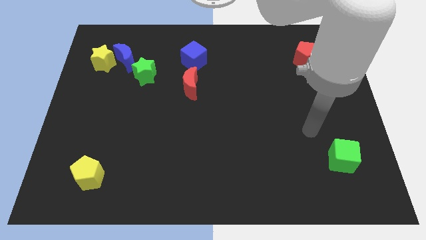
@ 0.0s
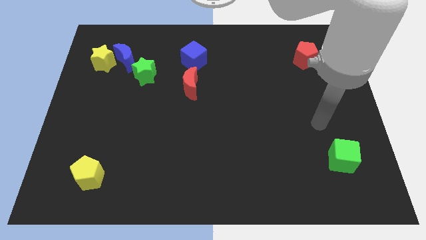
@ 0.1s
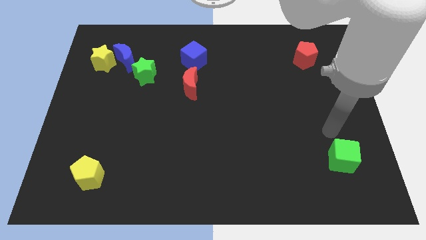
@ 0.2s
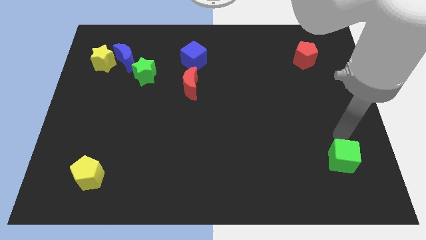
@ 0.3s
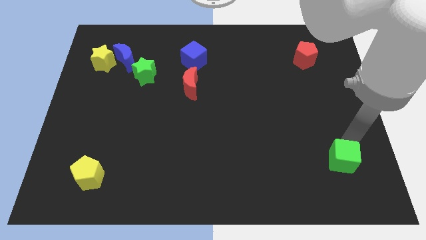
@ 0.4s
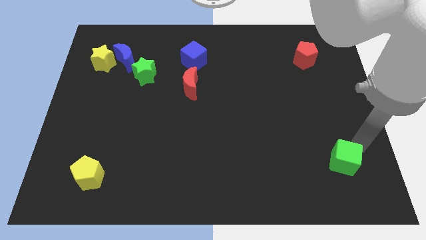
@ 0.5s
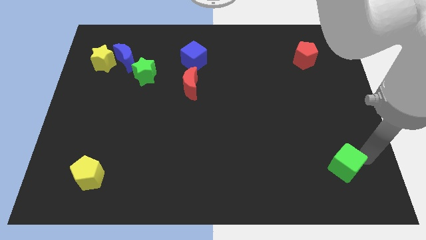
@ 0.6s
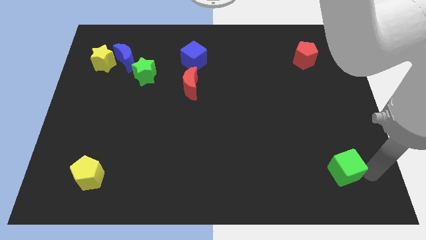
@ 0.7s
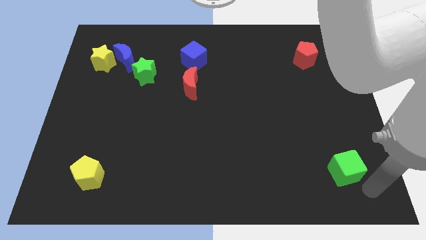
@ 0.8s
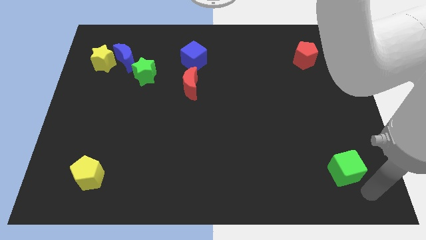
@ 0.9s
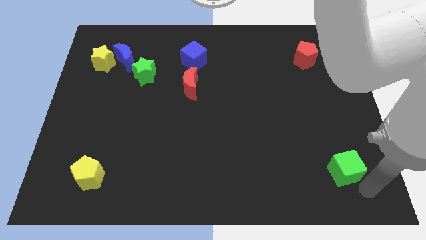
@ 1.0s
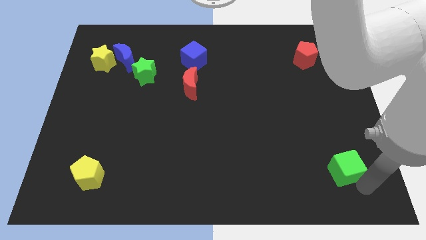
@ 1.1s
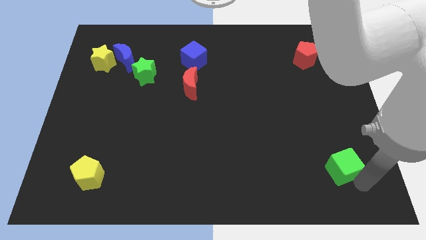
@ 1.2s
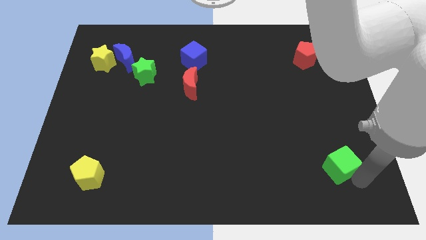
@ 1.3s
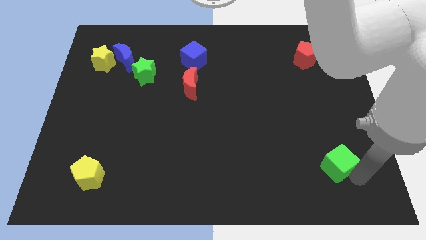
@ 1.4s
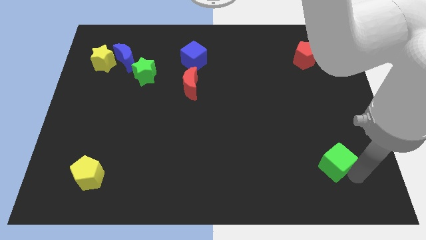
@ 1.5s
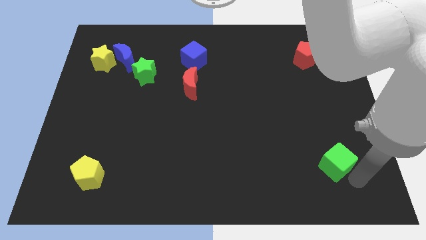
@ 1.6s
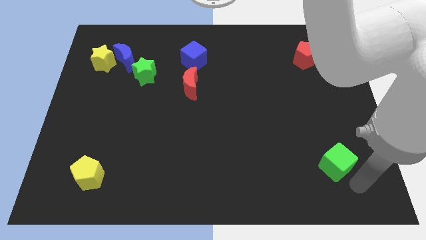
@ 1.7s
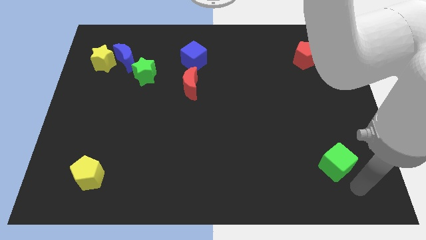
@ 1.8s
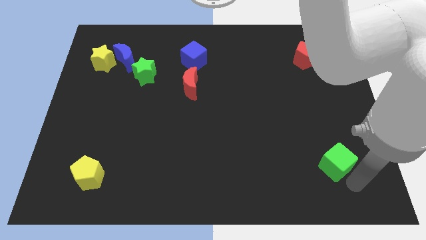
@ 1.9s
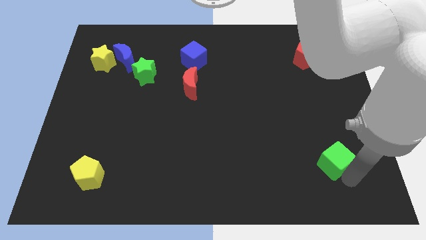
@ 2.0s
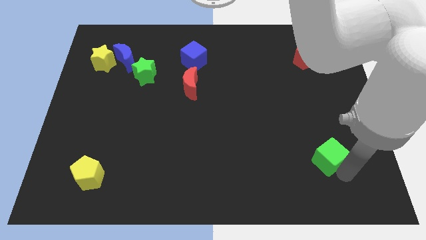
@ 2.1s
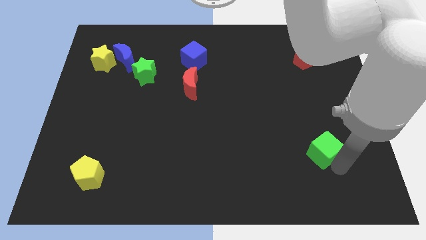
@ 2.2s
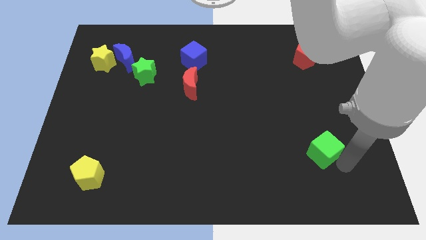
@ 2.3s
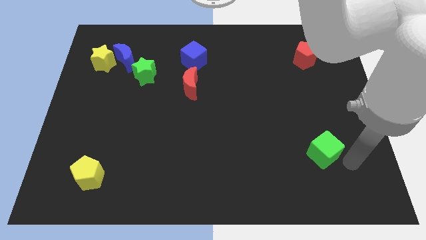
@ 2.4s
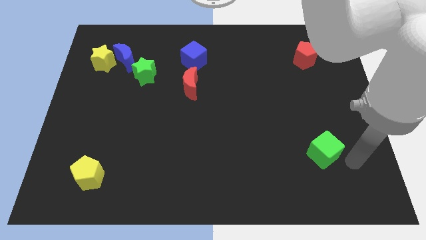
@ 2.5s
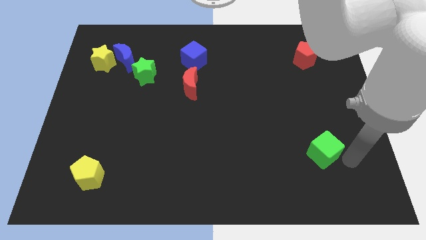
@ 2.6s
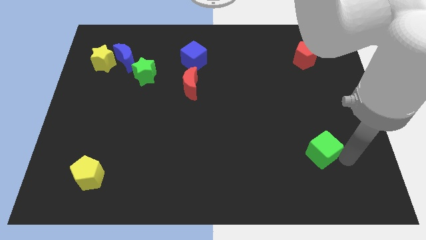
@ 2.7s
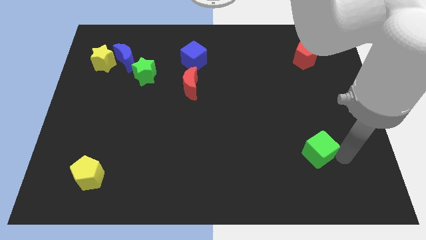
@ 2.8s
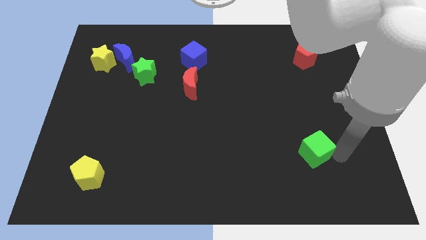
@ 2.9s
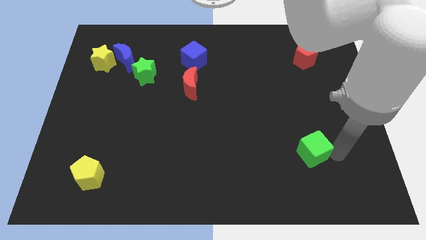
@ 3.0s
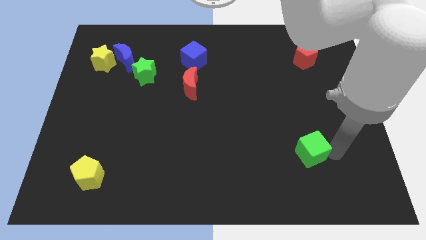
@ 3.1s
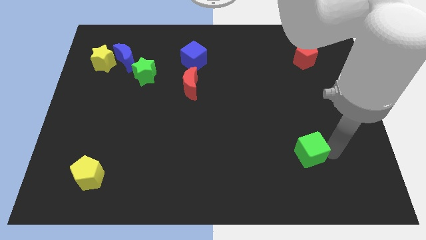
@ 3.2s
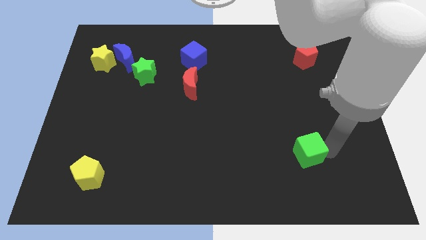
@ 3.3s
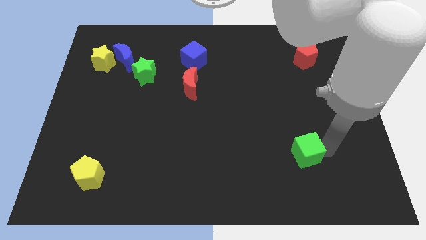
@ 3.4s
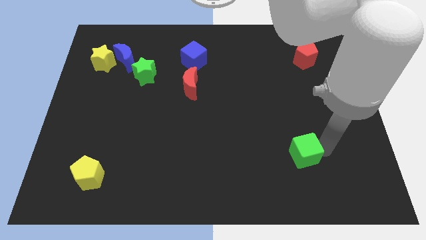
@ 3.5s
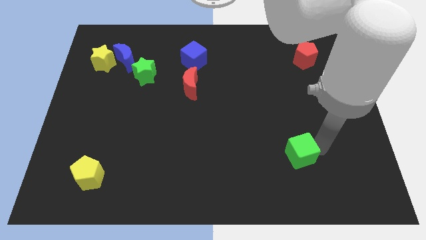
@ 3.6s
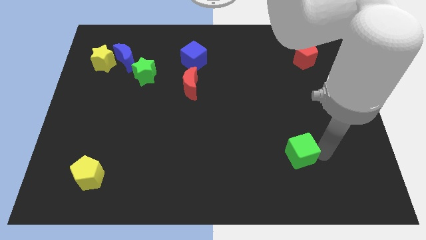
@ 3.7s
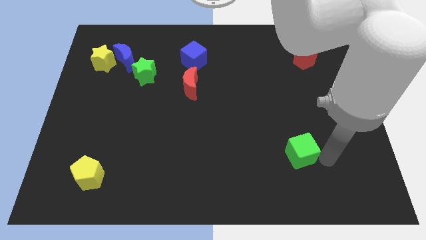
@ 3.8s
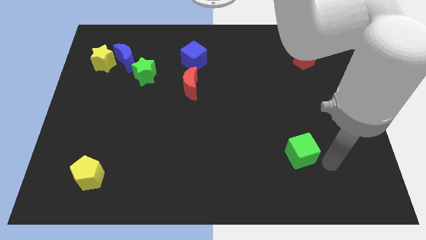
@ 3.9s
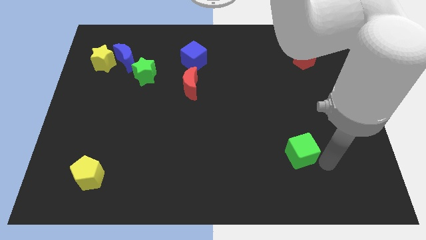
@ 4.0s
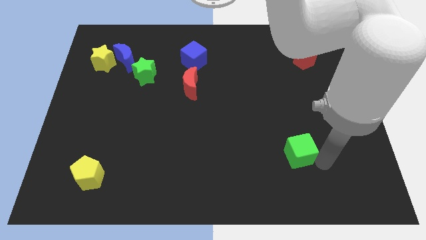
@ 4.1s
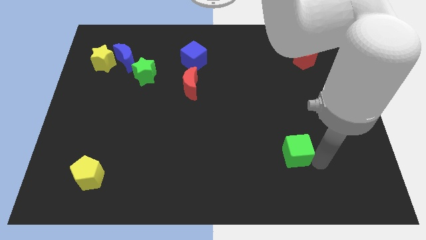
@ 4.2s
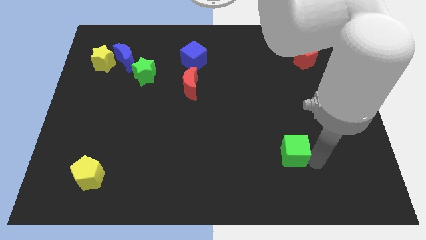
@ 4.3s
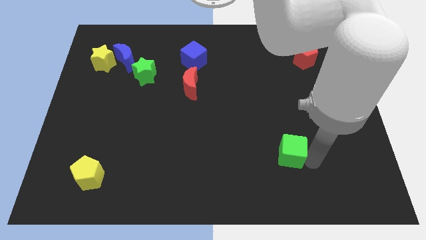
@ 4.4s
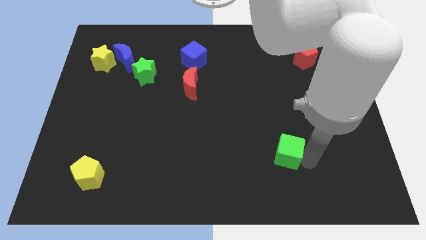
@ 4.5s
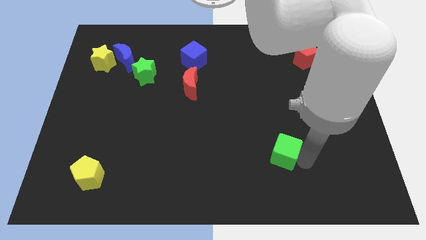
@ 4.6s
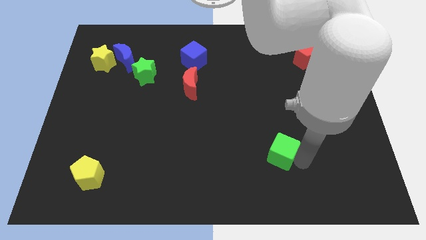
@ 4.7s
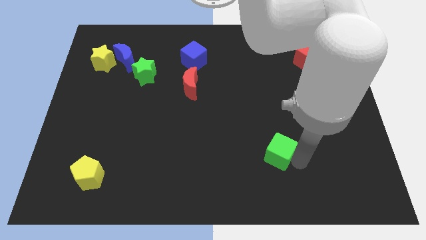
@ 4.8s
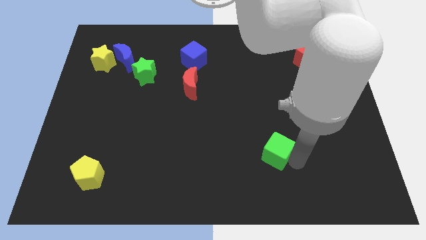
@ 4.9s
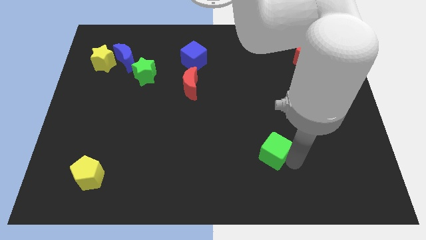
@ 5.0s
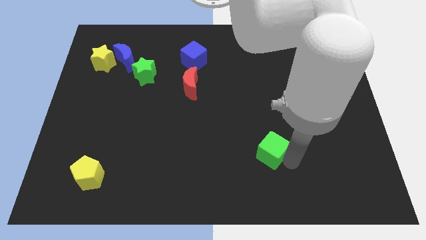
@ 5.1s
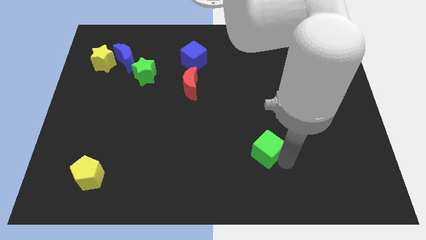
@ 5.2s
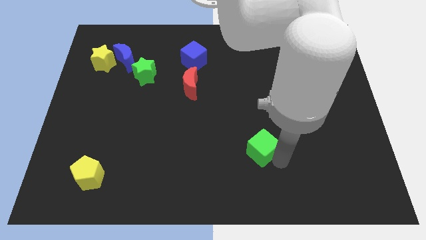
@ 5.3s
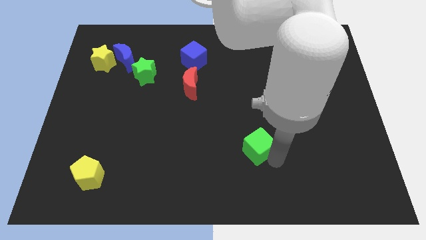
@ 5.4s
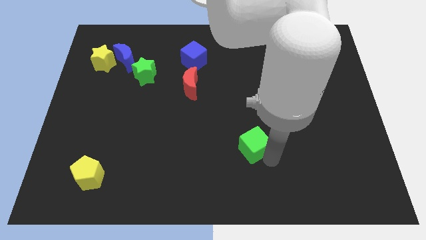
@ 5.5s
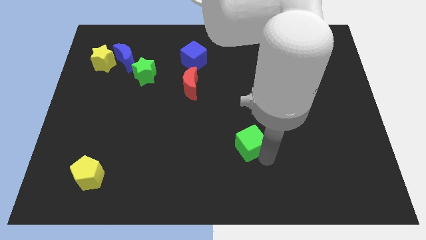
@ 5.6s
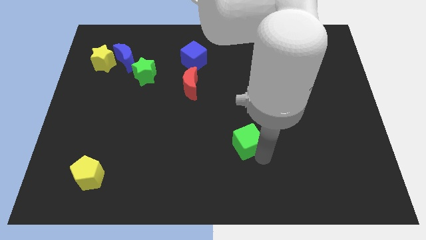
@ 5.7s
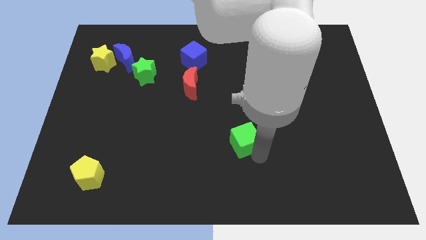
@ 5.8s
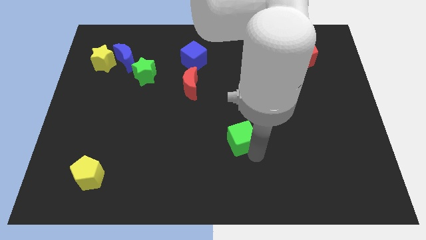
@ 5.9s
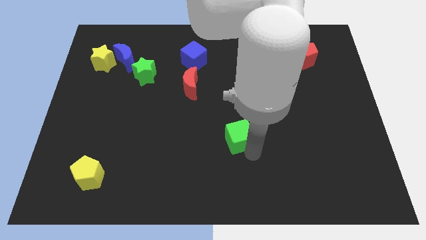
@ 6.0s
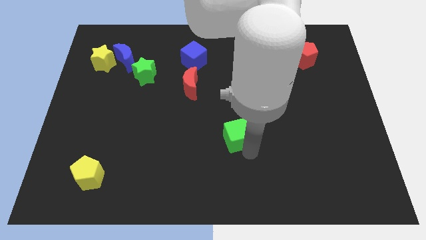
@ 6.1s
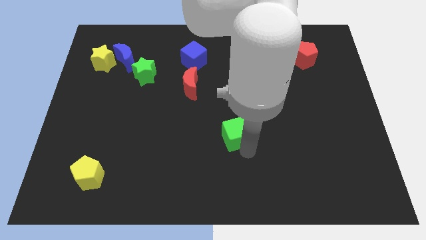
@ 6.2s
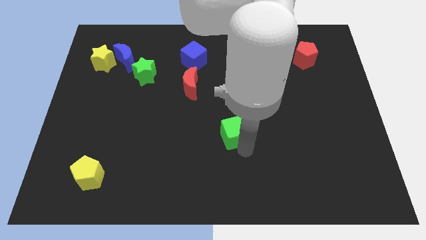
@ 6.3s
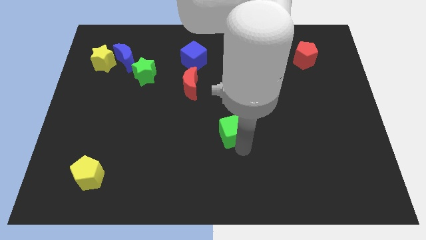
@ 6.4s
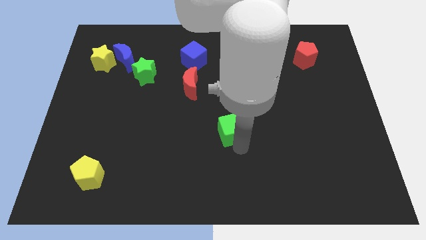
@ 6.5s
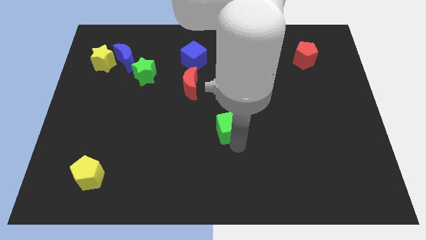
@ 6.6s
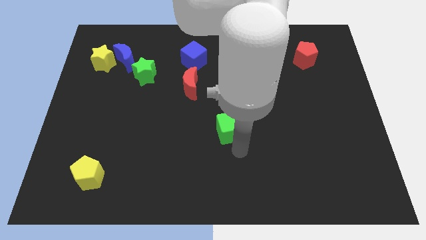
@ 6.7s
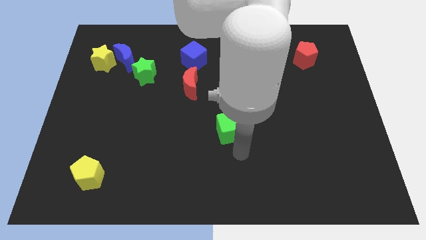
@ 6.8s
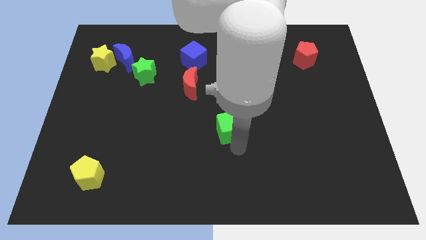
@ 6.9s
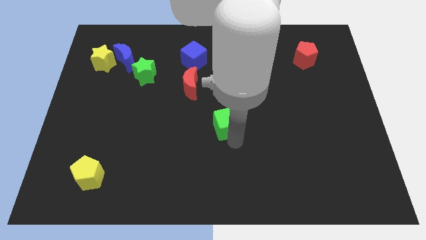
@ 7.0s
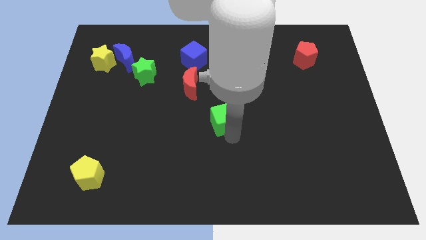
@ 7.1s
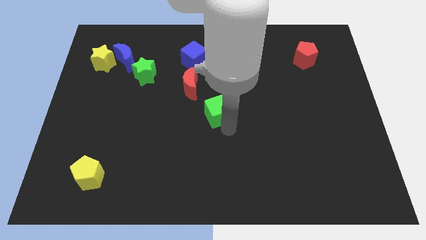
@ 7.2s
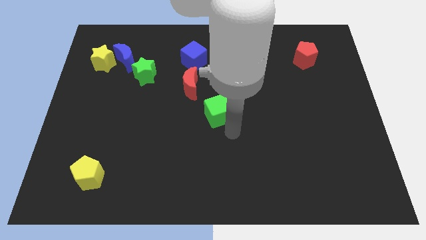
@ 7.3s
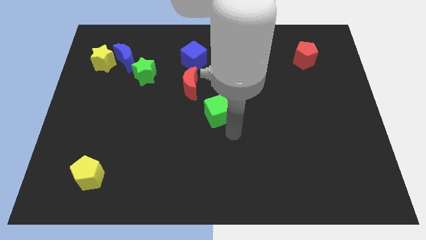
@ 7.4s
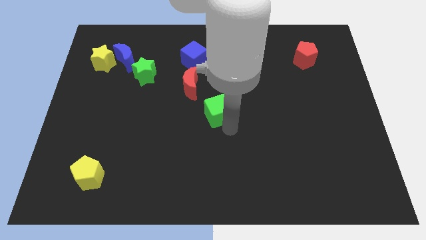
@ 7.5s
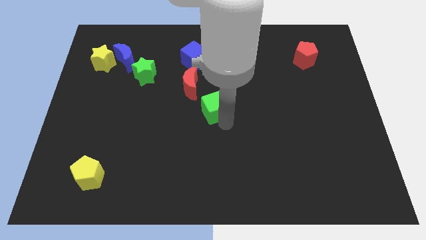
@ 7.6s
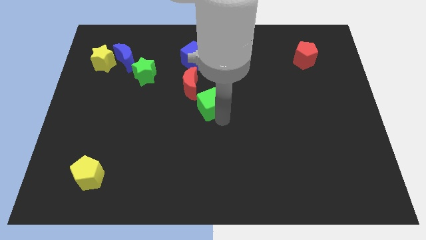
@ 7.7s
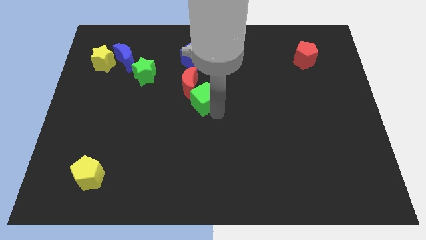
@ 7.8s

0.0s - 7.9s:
move the green cube to the red moon
